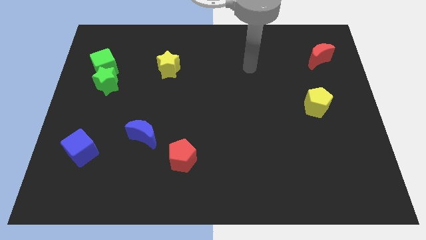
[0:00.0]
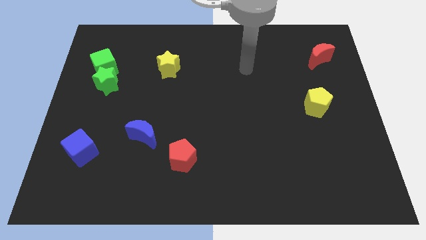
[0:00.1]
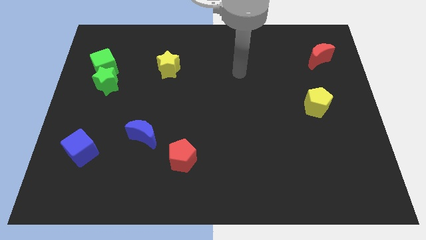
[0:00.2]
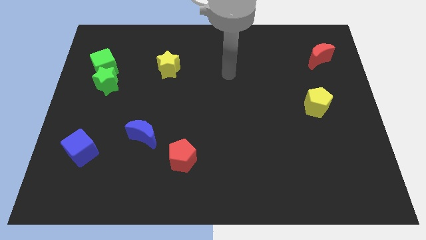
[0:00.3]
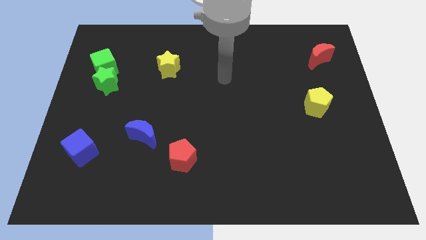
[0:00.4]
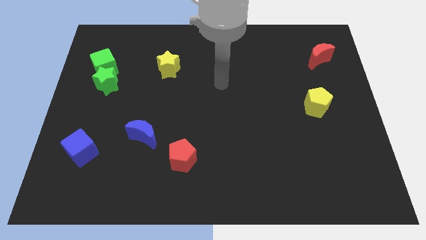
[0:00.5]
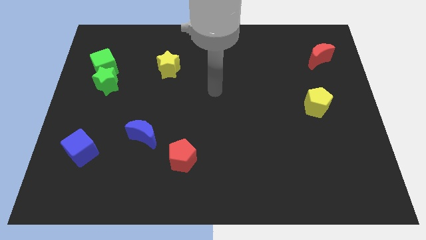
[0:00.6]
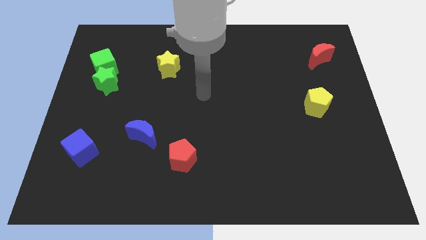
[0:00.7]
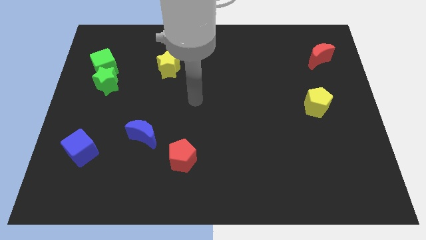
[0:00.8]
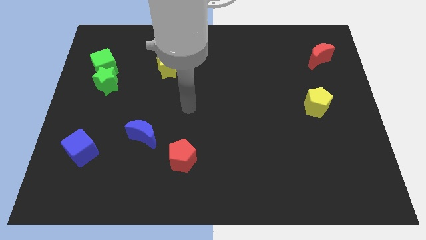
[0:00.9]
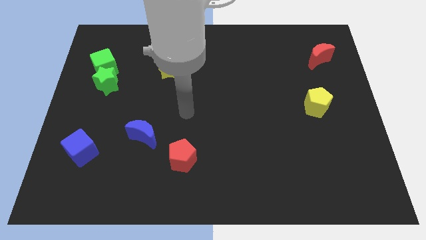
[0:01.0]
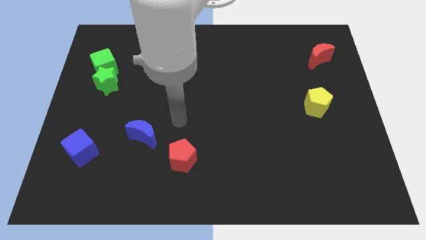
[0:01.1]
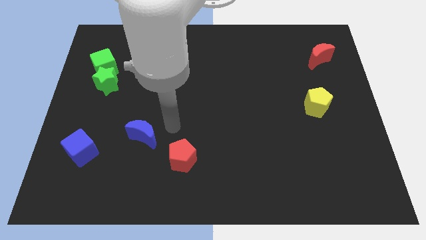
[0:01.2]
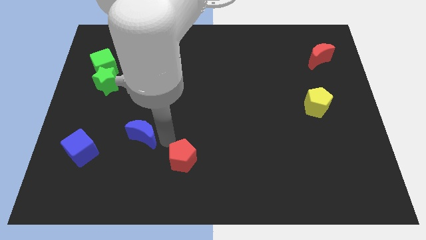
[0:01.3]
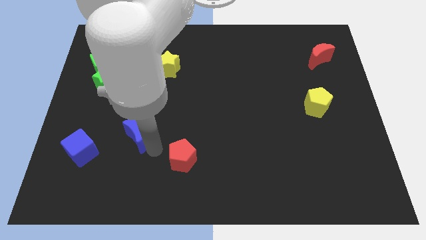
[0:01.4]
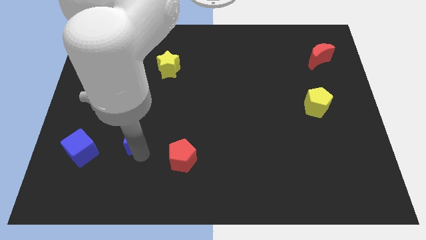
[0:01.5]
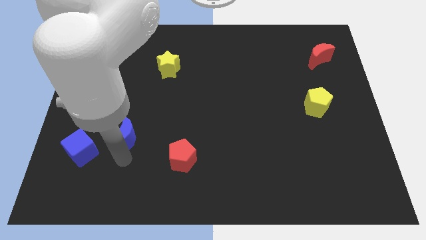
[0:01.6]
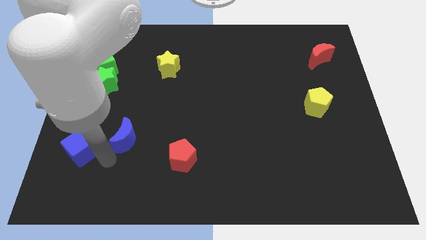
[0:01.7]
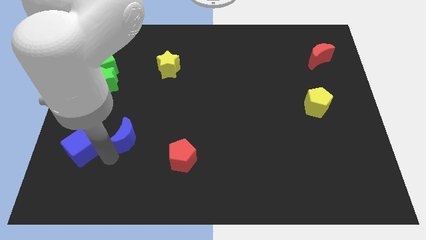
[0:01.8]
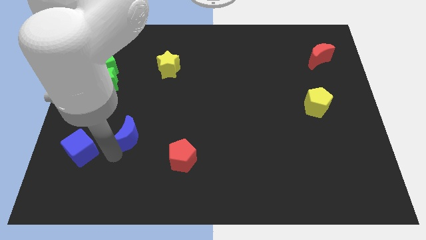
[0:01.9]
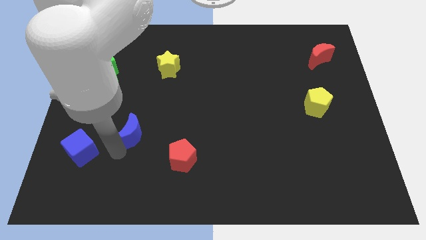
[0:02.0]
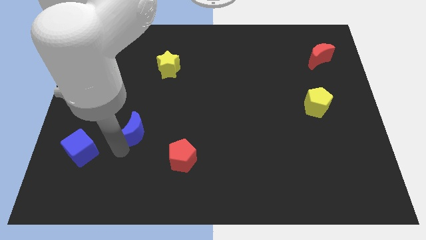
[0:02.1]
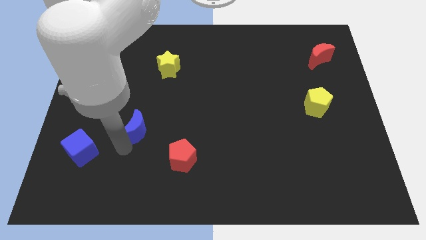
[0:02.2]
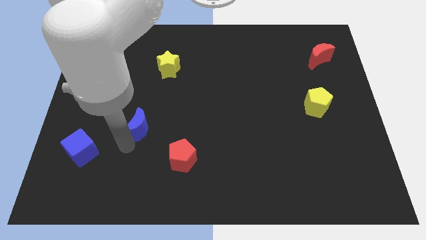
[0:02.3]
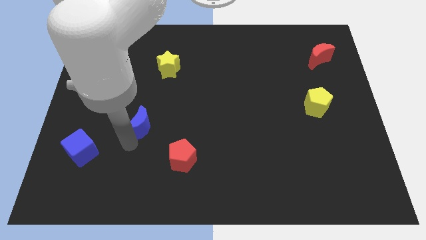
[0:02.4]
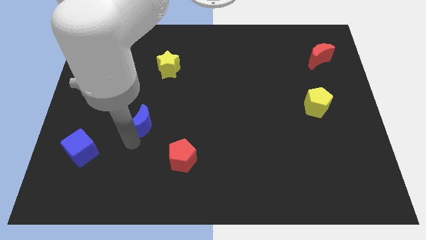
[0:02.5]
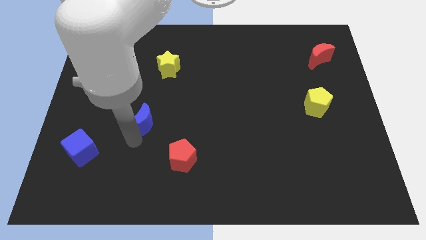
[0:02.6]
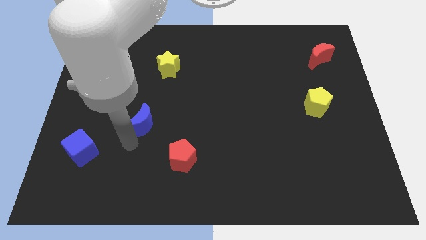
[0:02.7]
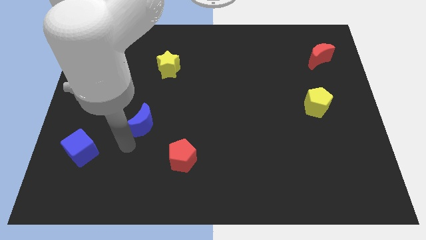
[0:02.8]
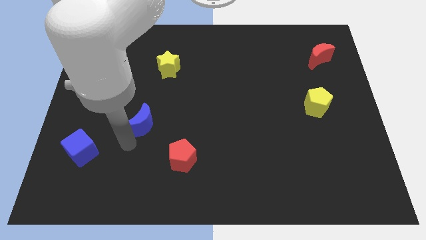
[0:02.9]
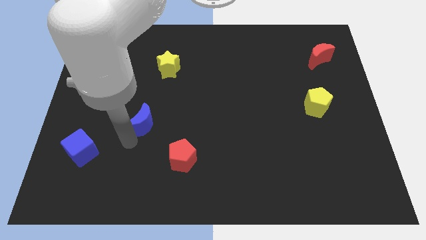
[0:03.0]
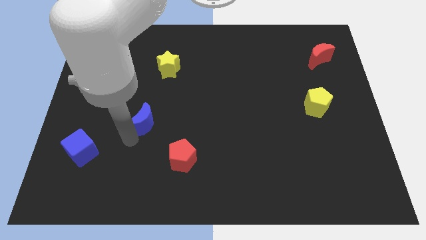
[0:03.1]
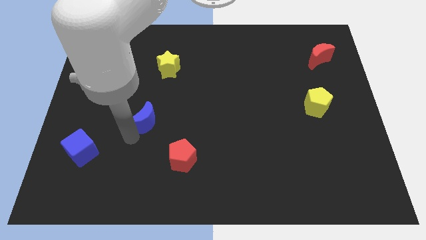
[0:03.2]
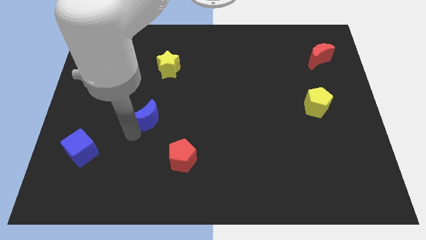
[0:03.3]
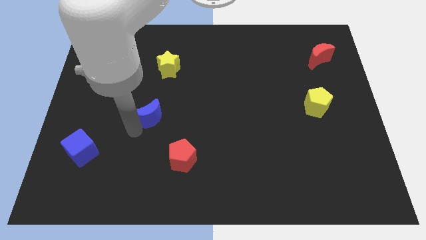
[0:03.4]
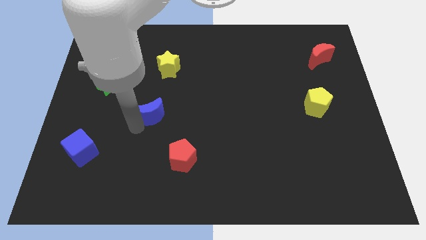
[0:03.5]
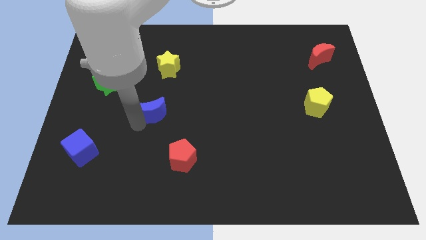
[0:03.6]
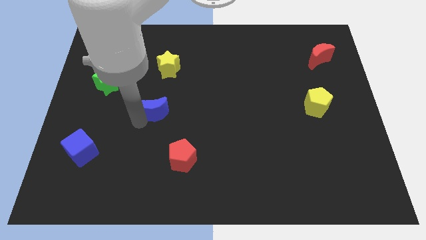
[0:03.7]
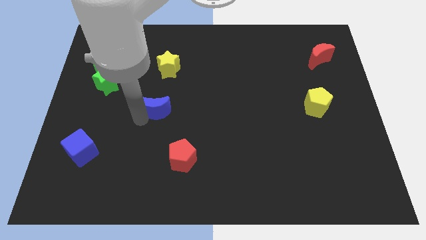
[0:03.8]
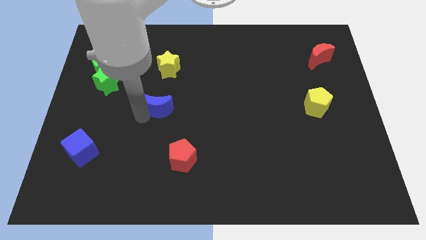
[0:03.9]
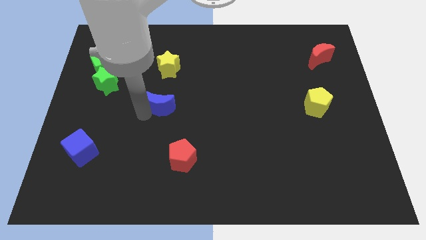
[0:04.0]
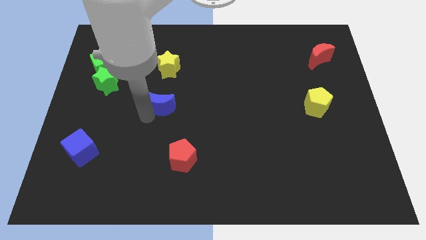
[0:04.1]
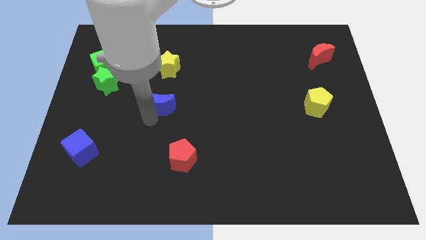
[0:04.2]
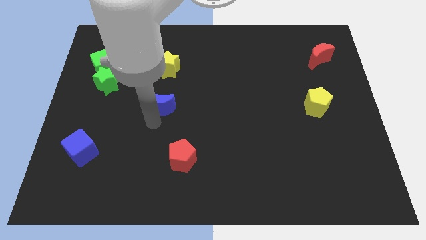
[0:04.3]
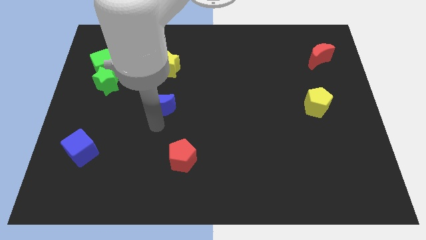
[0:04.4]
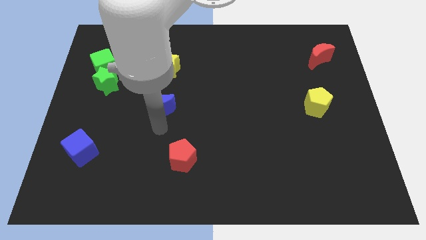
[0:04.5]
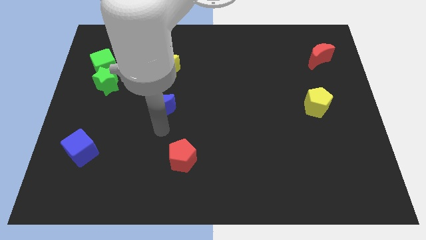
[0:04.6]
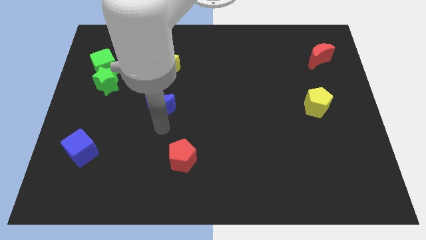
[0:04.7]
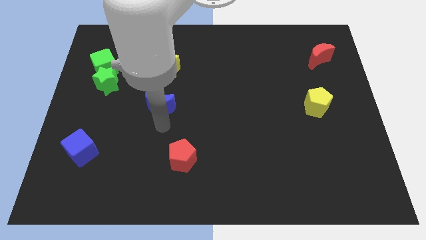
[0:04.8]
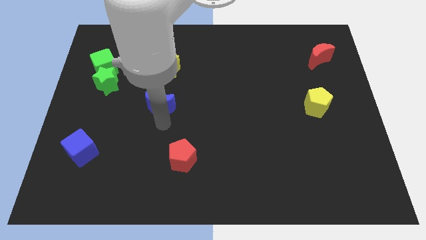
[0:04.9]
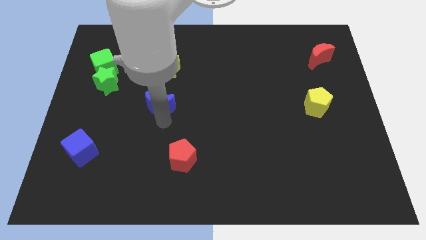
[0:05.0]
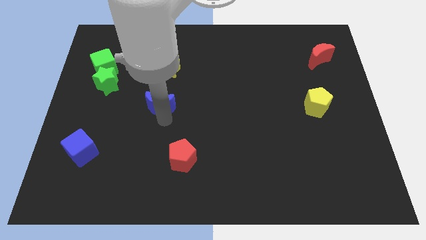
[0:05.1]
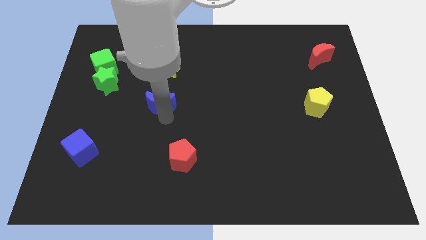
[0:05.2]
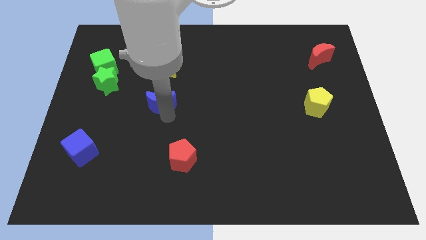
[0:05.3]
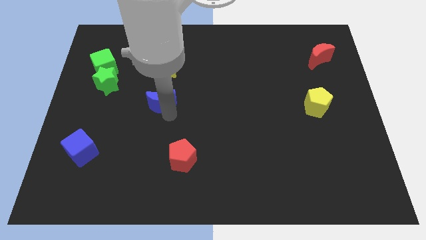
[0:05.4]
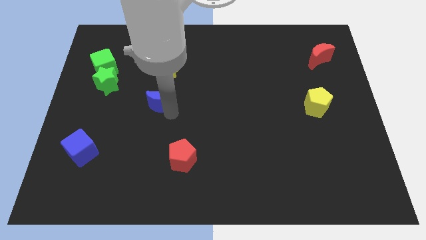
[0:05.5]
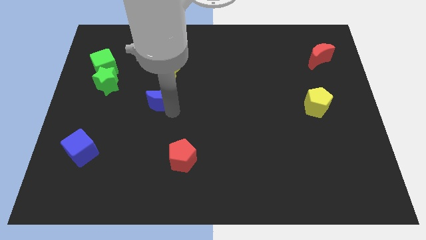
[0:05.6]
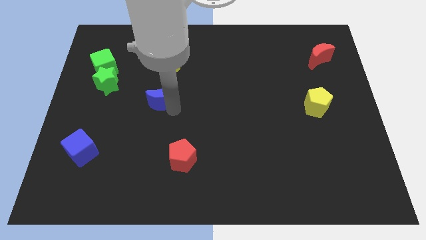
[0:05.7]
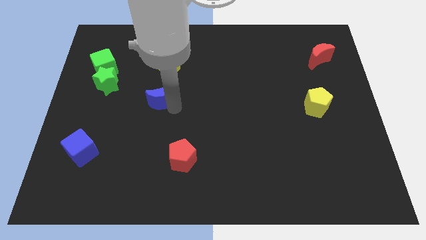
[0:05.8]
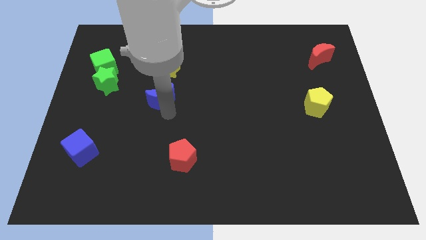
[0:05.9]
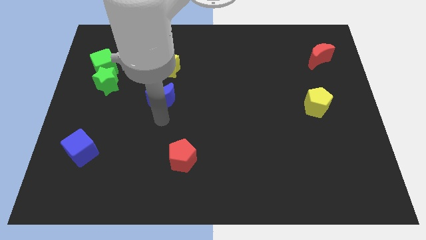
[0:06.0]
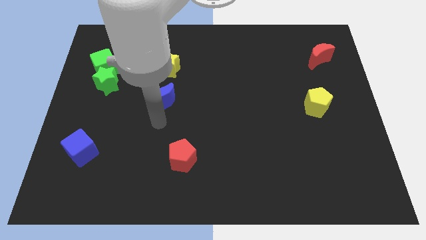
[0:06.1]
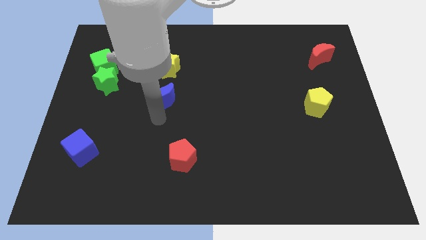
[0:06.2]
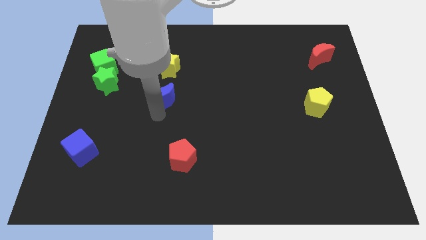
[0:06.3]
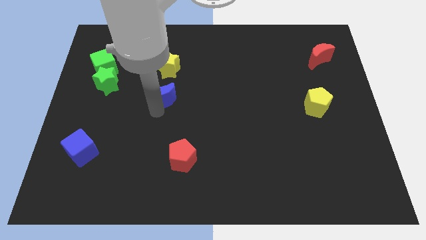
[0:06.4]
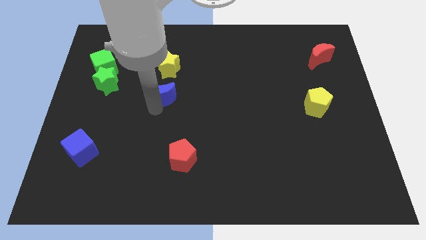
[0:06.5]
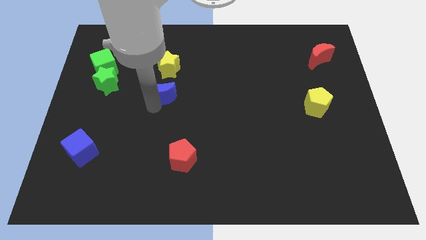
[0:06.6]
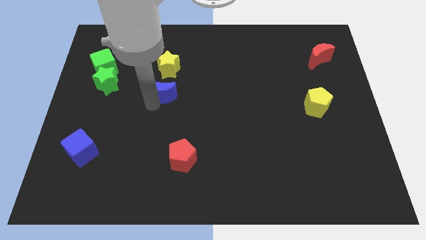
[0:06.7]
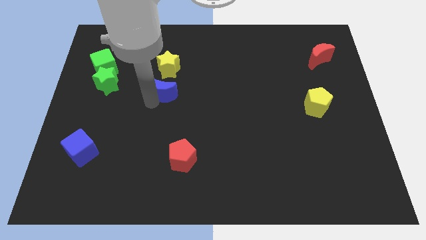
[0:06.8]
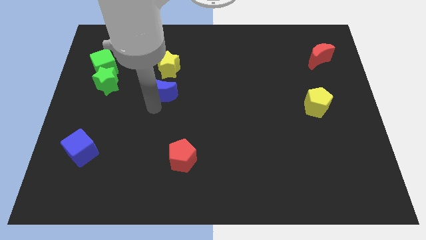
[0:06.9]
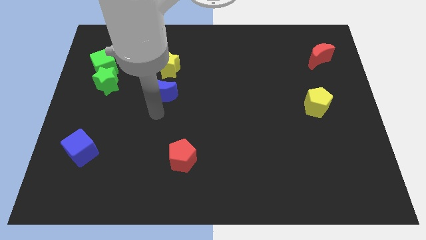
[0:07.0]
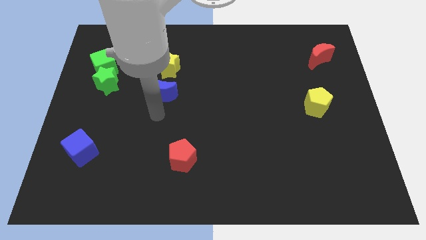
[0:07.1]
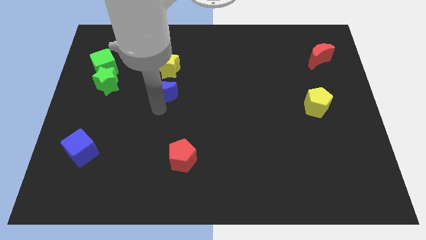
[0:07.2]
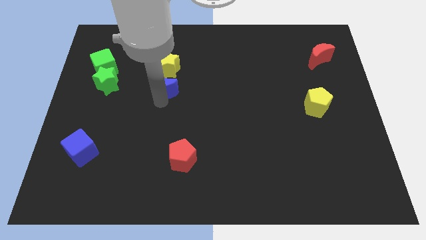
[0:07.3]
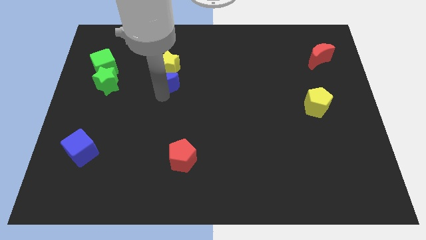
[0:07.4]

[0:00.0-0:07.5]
put the blue moon next to the yellow star
